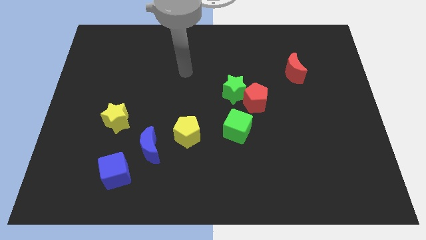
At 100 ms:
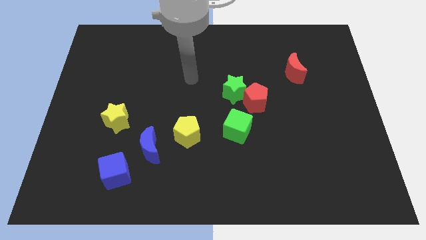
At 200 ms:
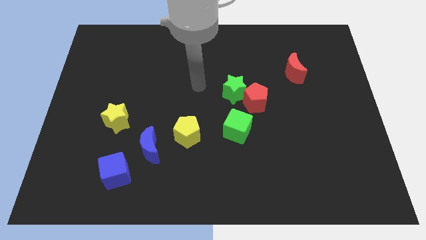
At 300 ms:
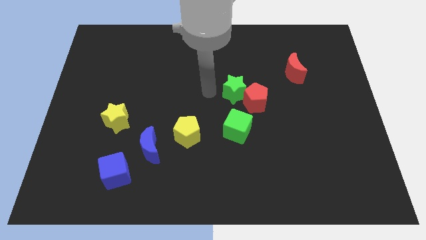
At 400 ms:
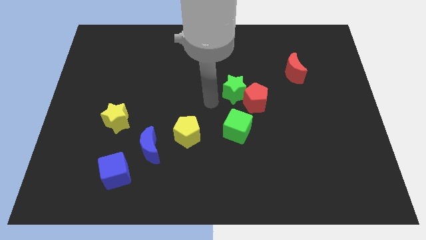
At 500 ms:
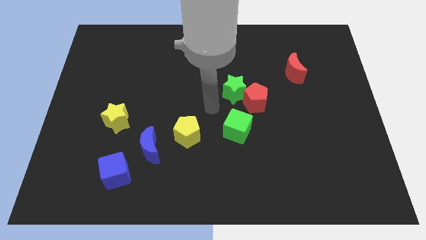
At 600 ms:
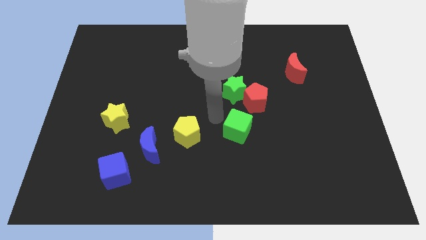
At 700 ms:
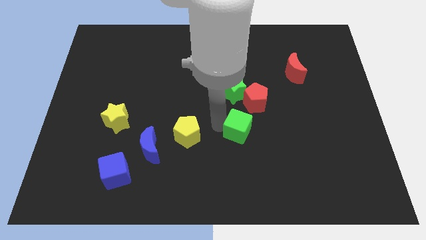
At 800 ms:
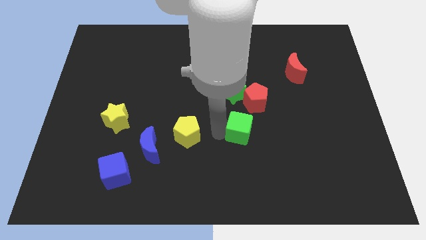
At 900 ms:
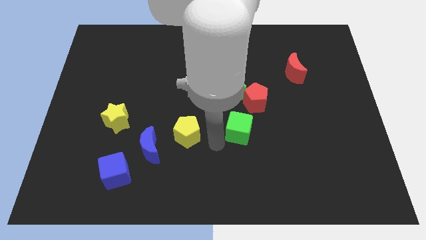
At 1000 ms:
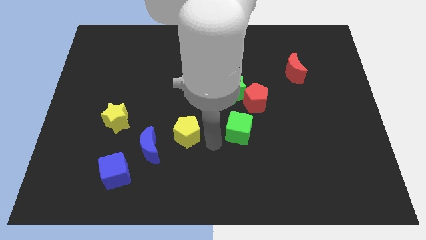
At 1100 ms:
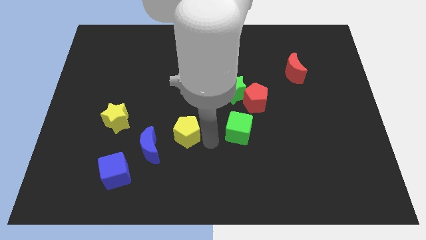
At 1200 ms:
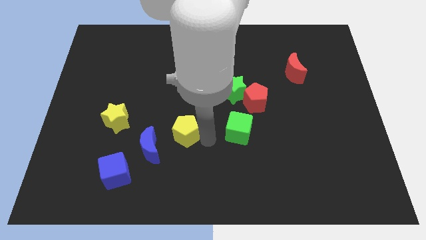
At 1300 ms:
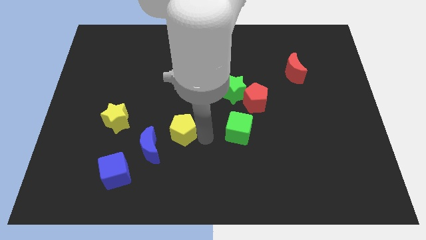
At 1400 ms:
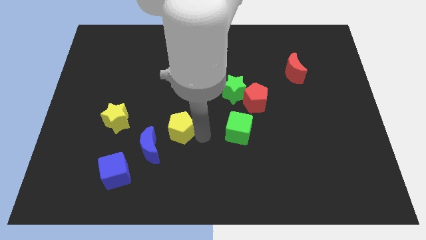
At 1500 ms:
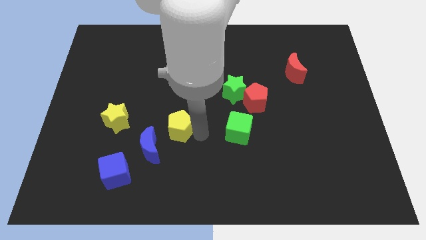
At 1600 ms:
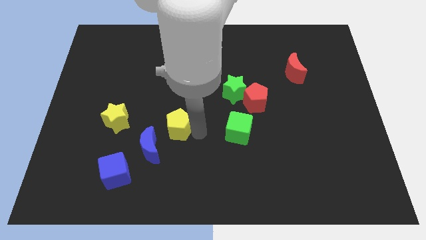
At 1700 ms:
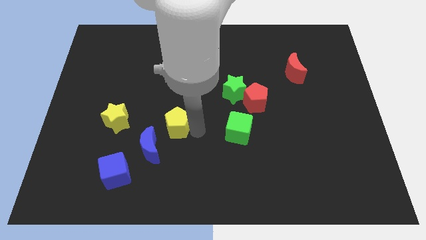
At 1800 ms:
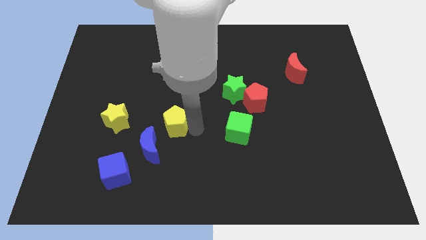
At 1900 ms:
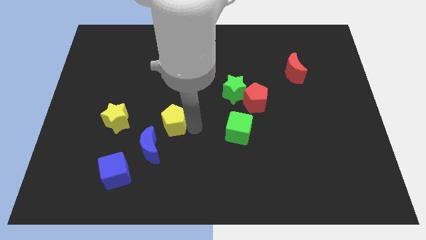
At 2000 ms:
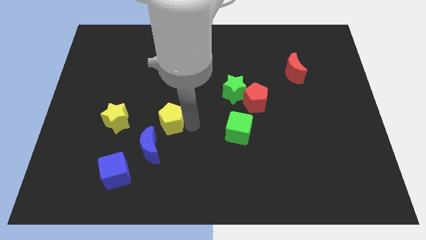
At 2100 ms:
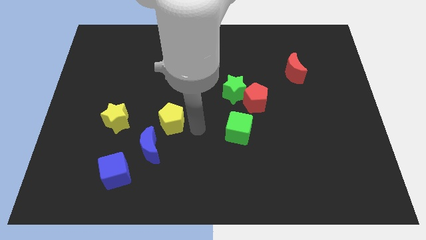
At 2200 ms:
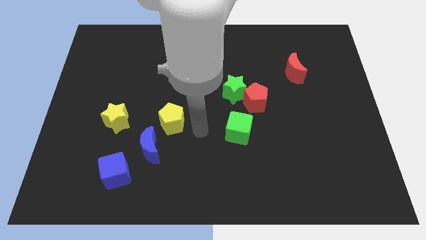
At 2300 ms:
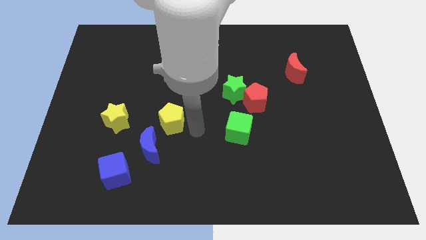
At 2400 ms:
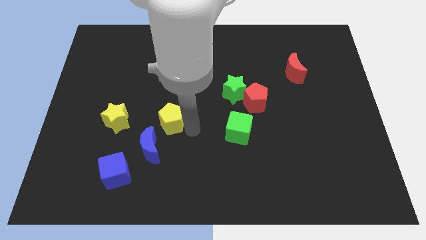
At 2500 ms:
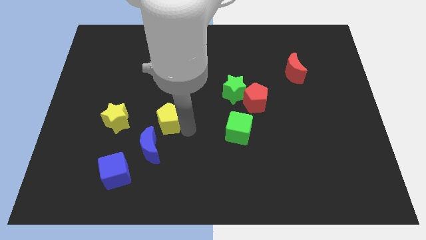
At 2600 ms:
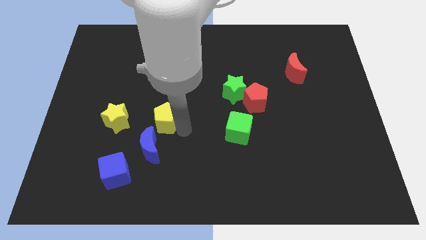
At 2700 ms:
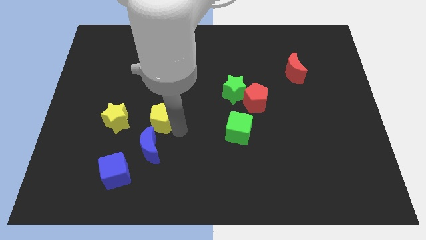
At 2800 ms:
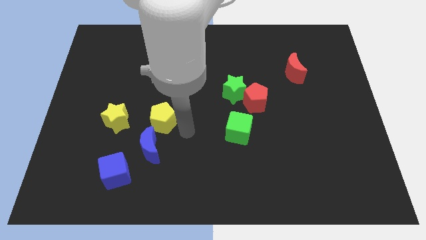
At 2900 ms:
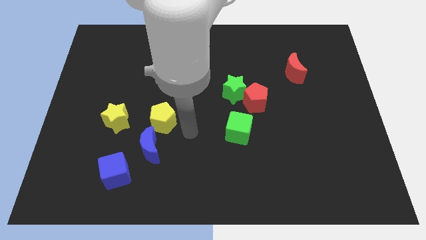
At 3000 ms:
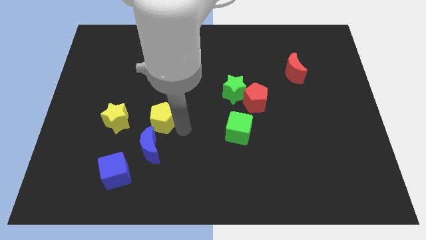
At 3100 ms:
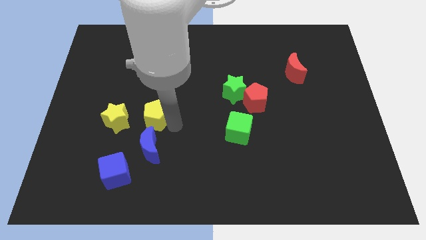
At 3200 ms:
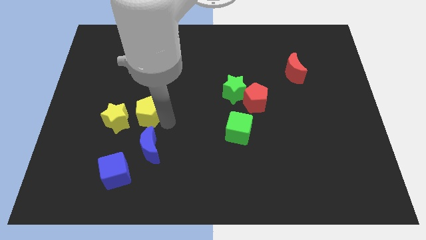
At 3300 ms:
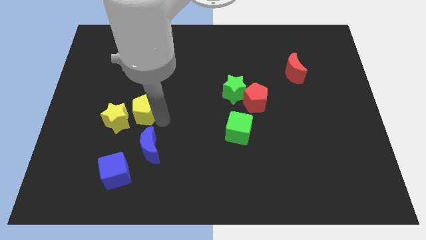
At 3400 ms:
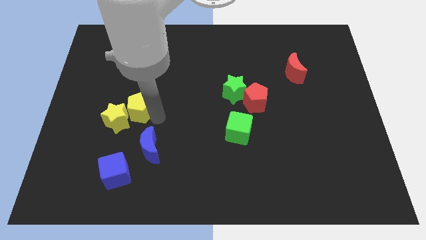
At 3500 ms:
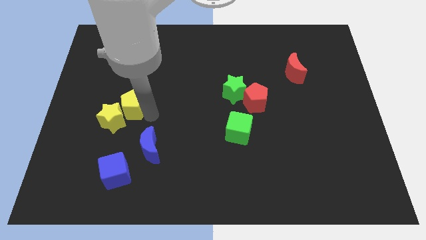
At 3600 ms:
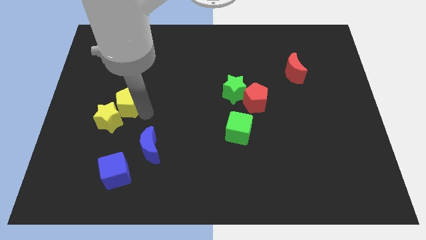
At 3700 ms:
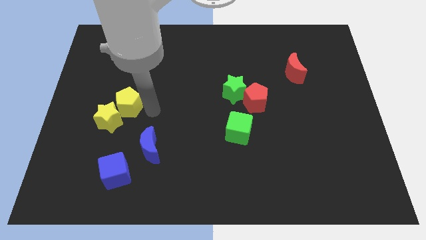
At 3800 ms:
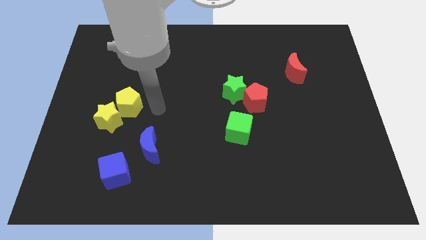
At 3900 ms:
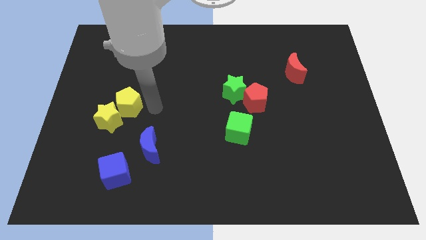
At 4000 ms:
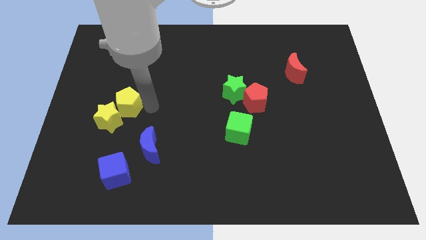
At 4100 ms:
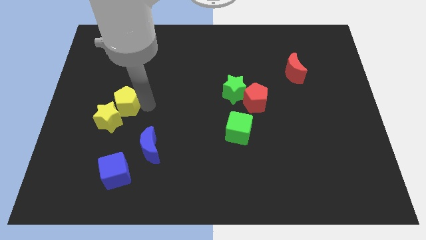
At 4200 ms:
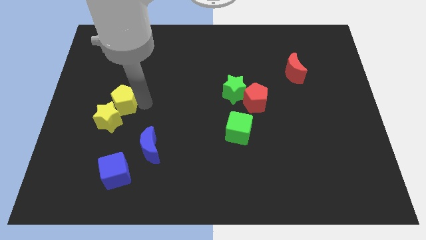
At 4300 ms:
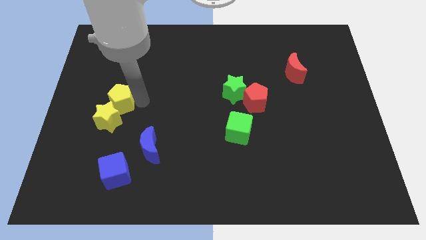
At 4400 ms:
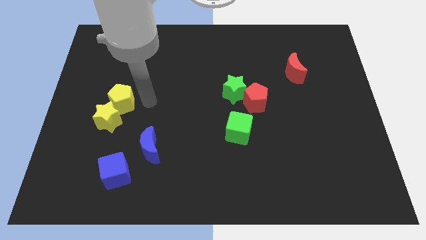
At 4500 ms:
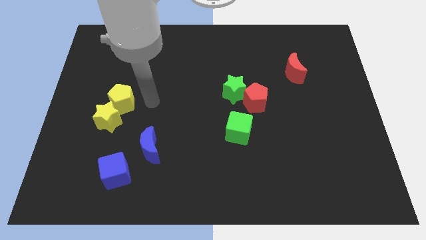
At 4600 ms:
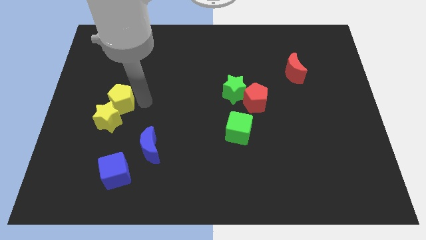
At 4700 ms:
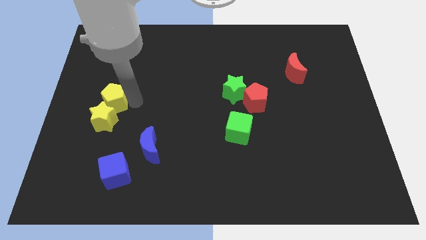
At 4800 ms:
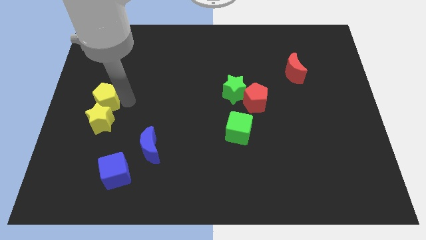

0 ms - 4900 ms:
put the yellow pentagon to the top left of the yellow star

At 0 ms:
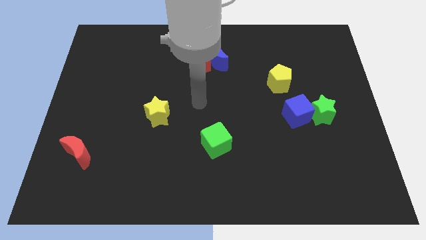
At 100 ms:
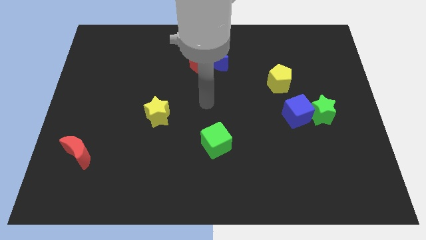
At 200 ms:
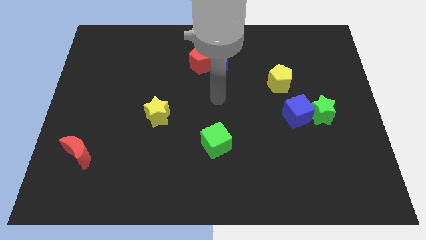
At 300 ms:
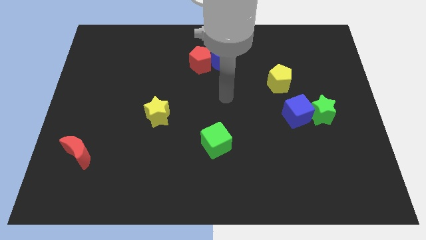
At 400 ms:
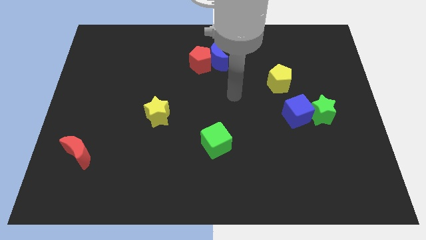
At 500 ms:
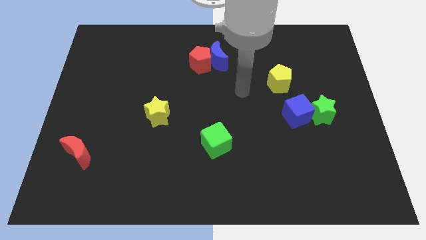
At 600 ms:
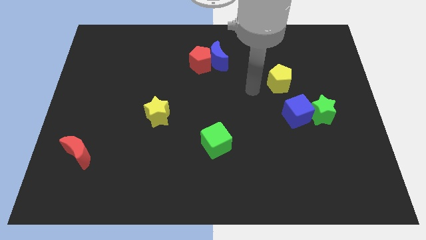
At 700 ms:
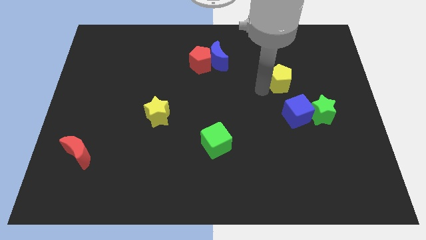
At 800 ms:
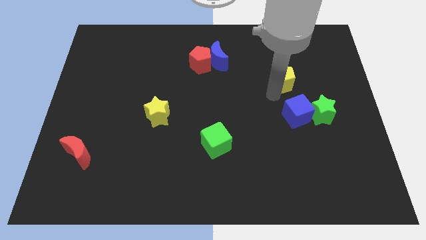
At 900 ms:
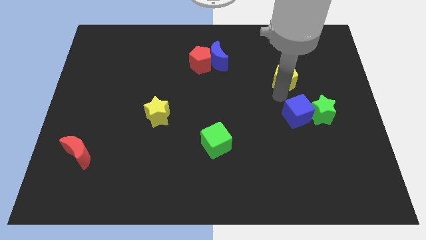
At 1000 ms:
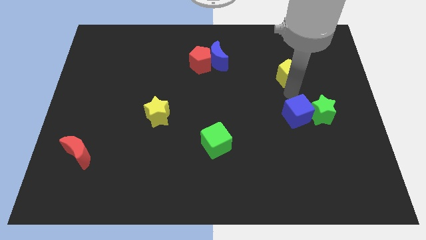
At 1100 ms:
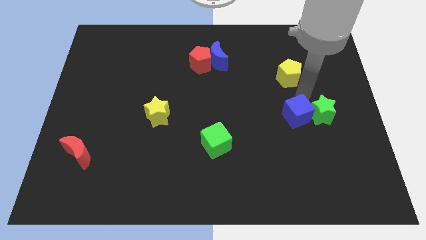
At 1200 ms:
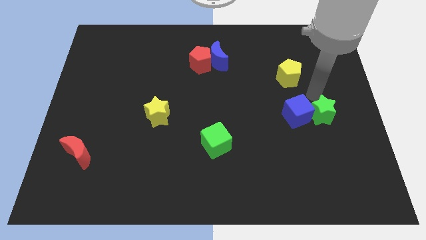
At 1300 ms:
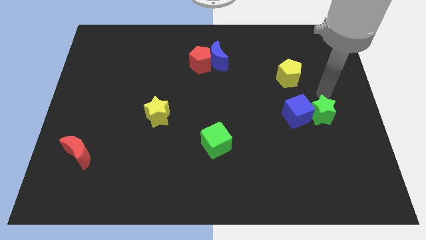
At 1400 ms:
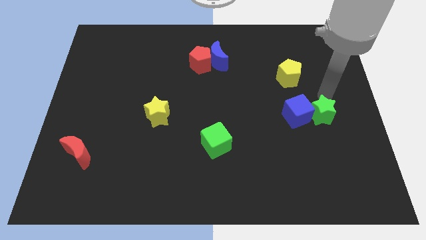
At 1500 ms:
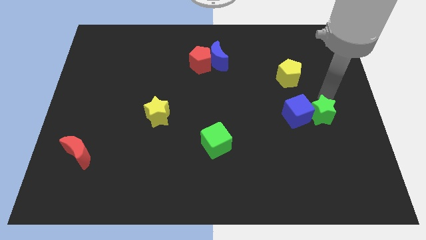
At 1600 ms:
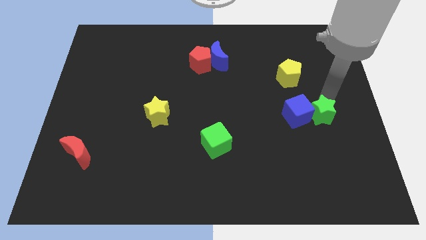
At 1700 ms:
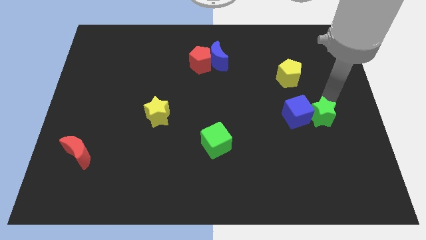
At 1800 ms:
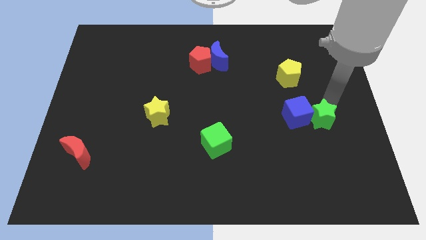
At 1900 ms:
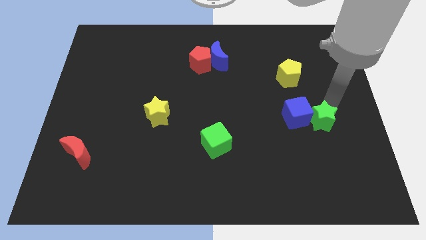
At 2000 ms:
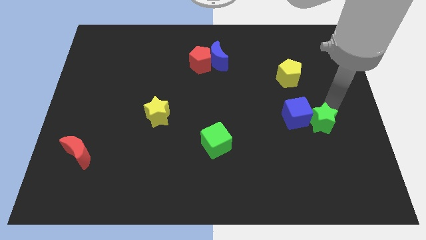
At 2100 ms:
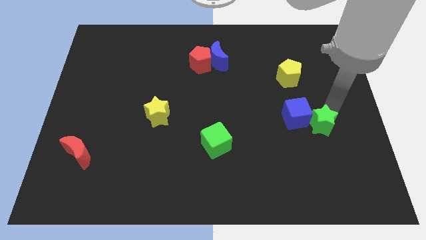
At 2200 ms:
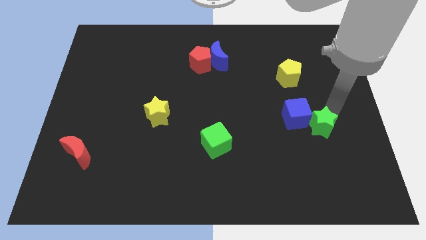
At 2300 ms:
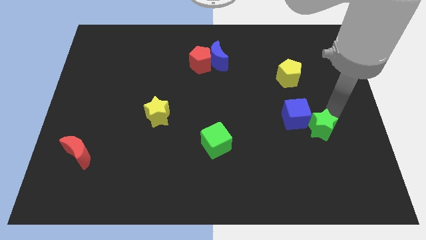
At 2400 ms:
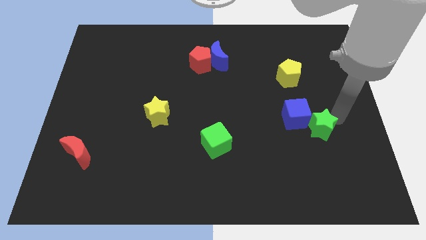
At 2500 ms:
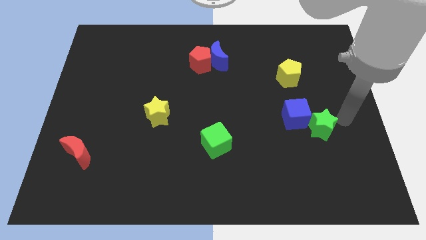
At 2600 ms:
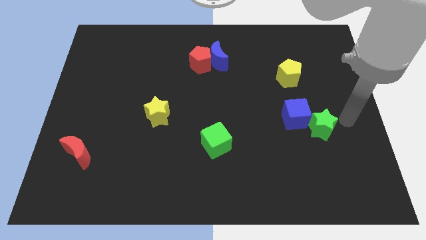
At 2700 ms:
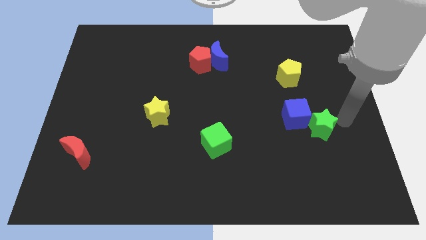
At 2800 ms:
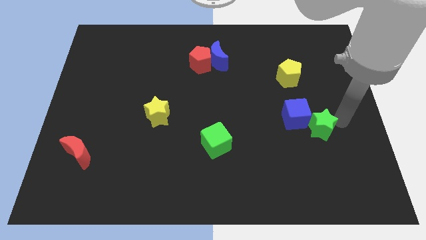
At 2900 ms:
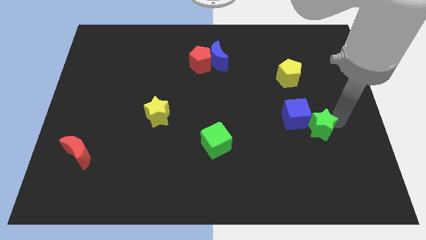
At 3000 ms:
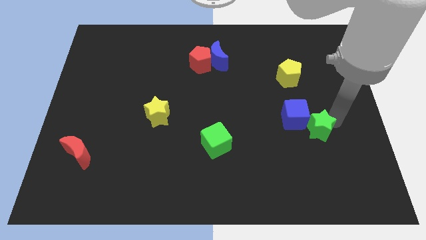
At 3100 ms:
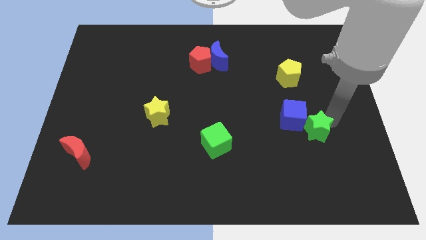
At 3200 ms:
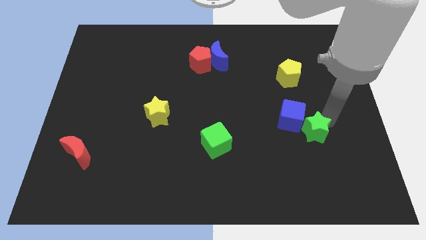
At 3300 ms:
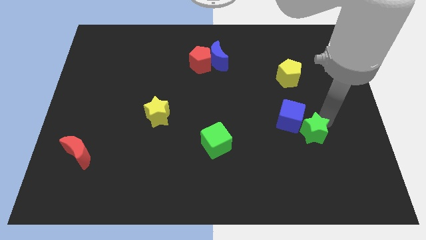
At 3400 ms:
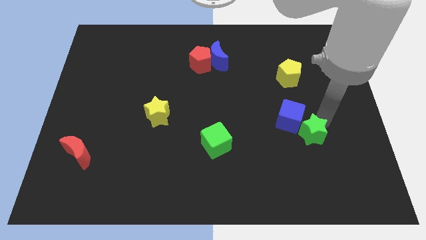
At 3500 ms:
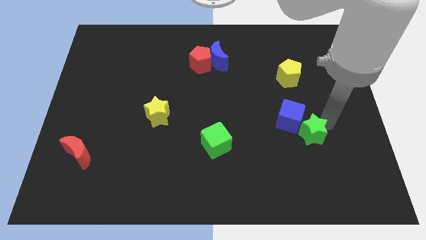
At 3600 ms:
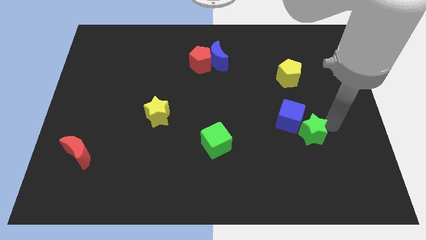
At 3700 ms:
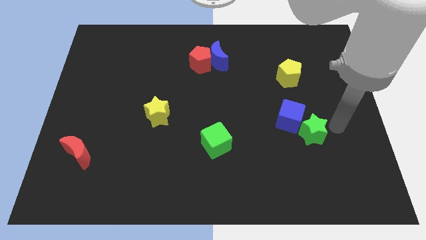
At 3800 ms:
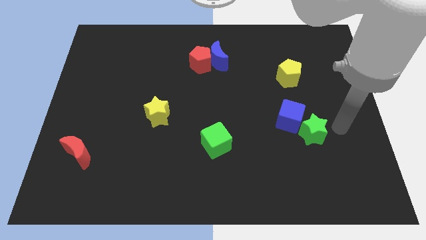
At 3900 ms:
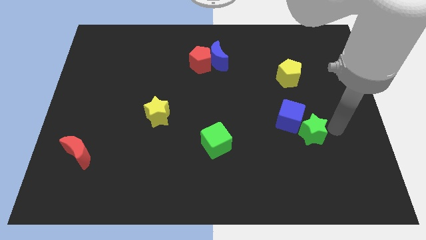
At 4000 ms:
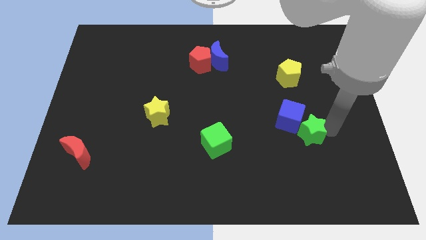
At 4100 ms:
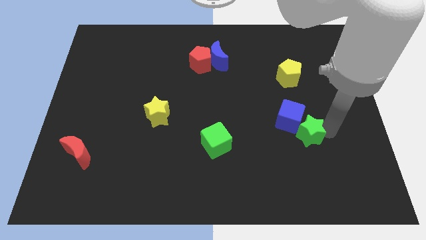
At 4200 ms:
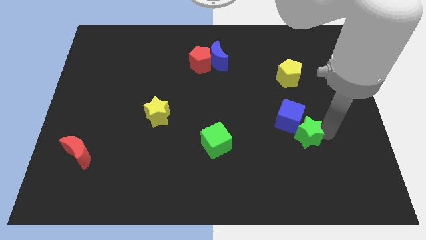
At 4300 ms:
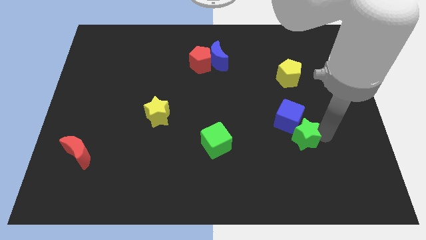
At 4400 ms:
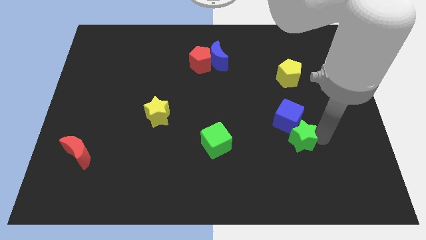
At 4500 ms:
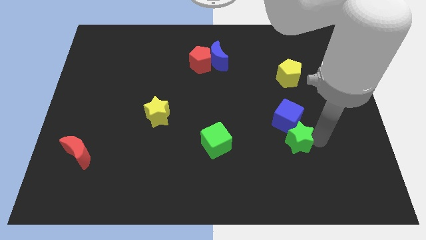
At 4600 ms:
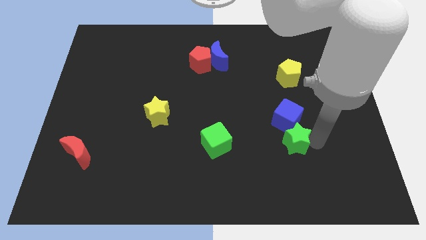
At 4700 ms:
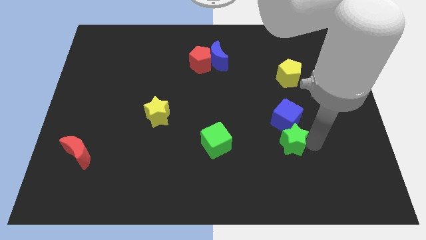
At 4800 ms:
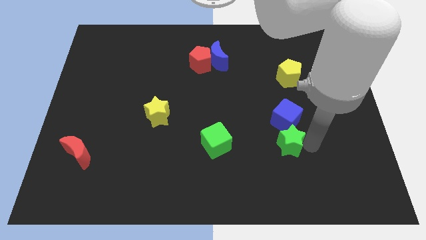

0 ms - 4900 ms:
move the green star to the bottom left of the blue cube
